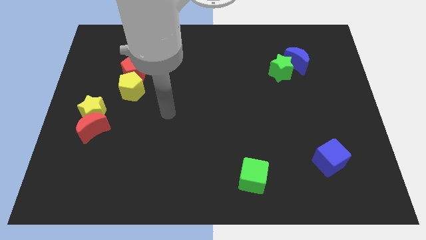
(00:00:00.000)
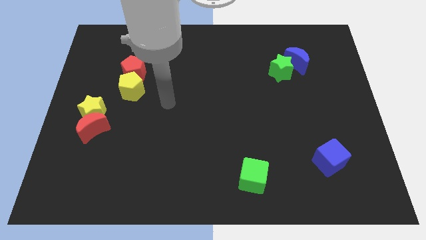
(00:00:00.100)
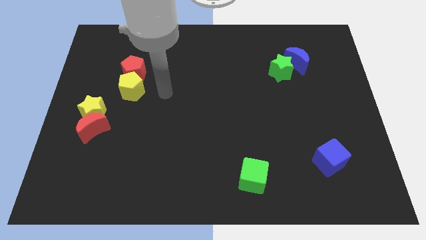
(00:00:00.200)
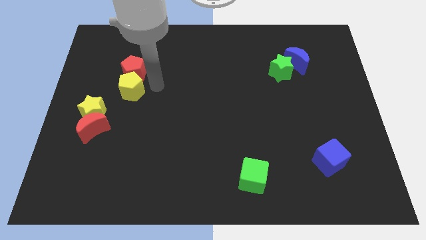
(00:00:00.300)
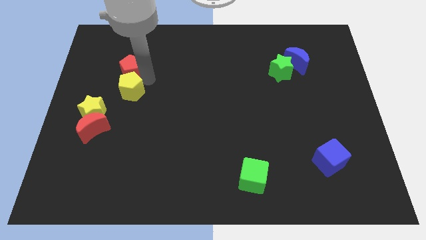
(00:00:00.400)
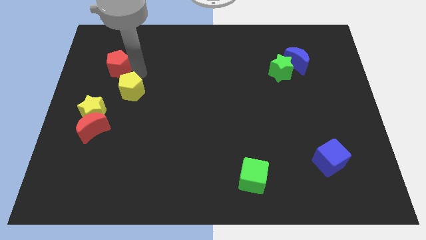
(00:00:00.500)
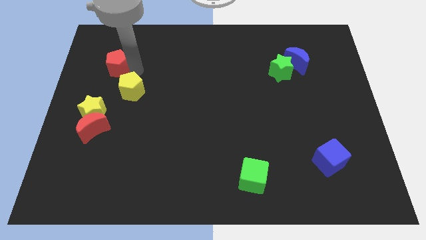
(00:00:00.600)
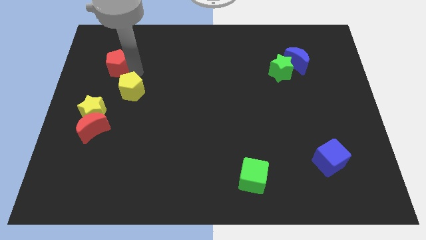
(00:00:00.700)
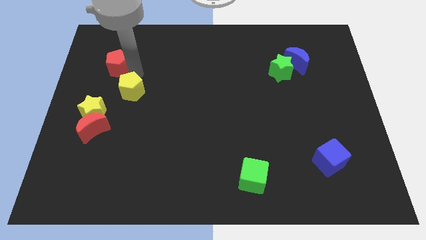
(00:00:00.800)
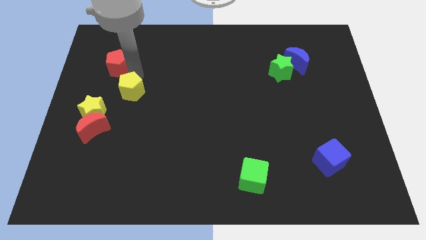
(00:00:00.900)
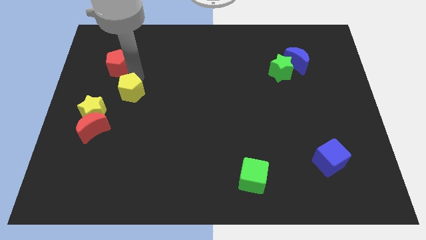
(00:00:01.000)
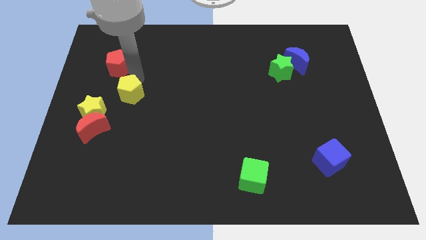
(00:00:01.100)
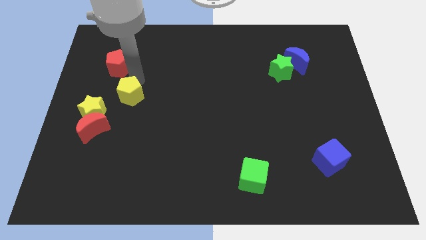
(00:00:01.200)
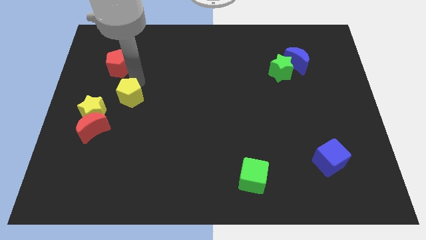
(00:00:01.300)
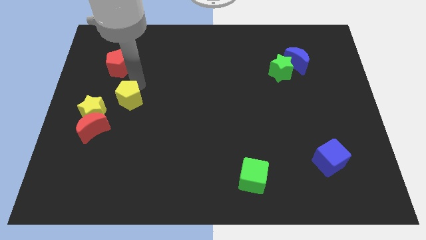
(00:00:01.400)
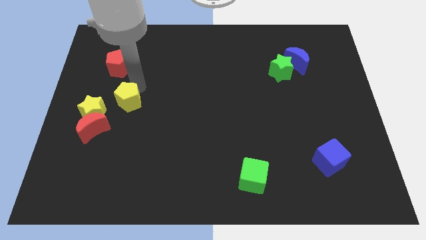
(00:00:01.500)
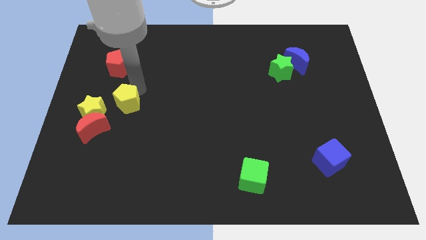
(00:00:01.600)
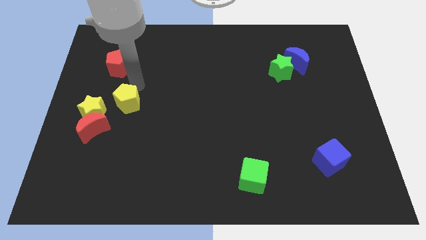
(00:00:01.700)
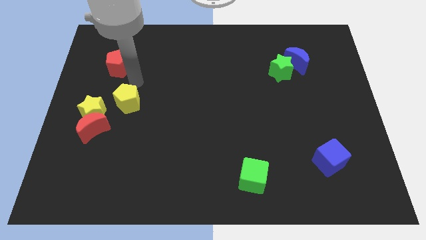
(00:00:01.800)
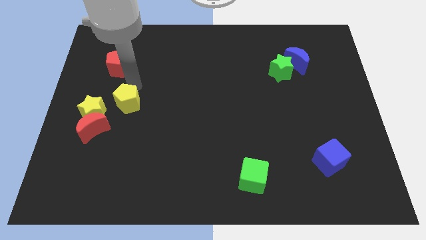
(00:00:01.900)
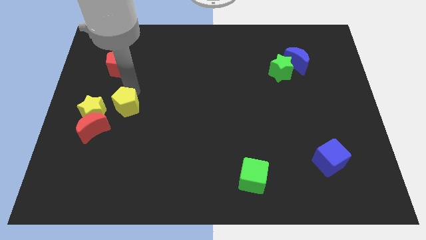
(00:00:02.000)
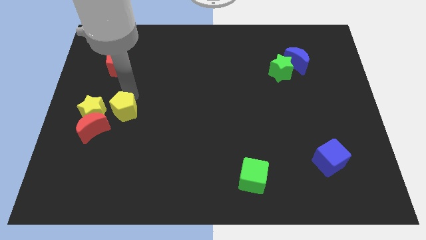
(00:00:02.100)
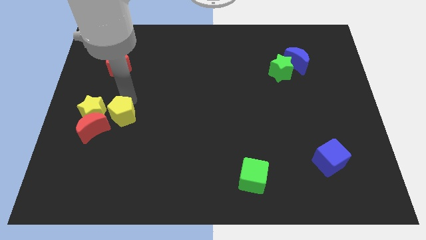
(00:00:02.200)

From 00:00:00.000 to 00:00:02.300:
move the yellow pentagon downwards somewhat

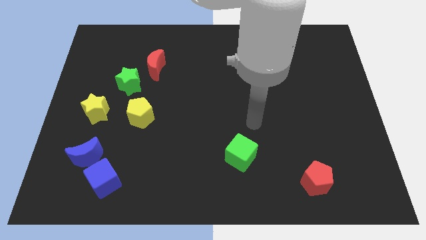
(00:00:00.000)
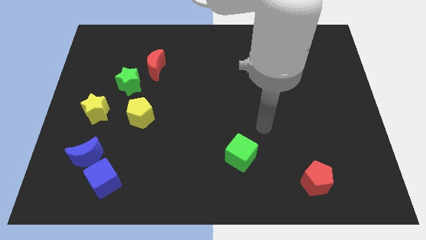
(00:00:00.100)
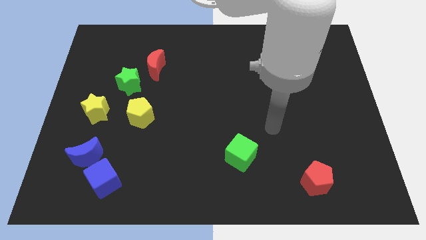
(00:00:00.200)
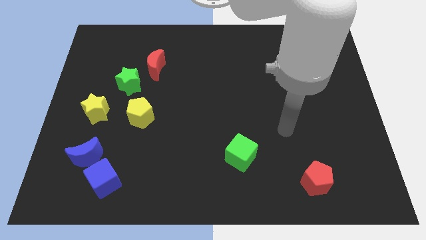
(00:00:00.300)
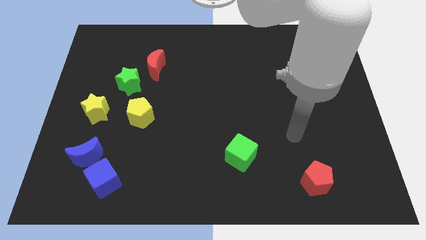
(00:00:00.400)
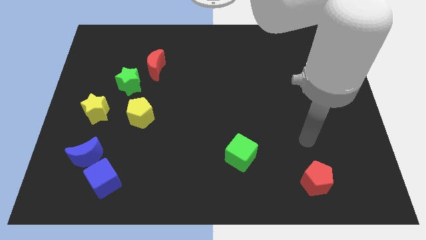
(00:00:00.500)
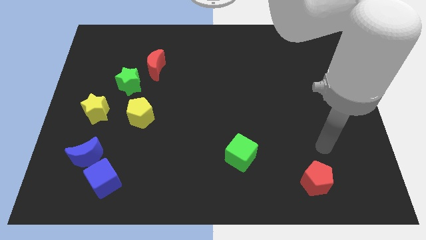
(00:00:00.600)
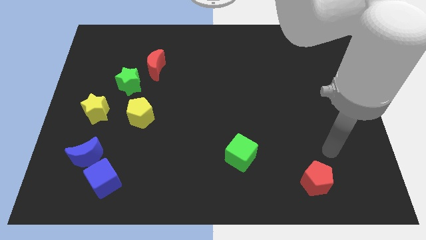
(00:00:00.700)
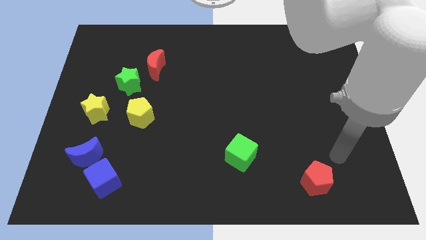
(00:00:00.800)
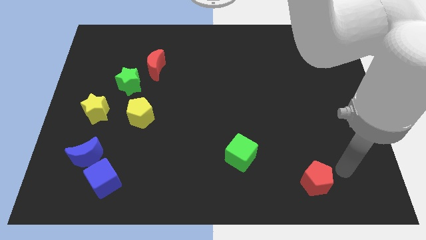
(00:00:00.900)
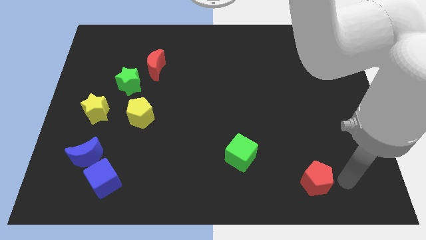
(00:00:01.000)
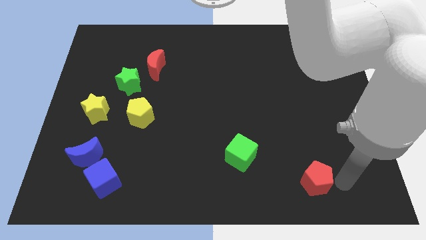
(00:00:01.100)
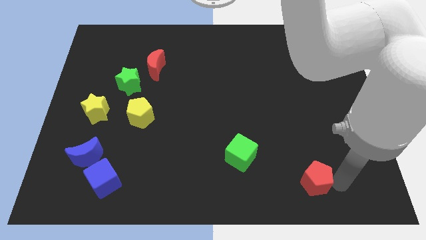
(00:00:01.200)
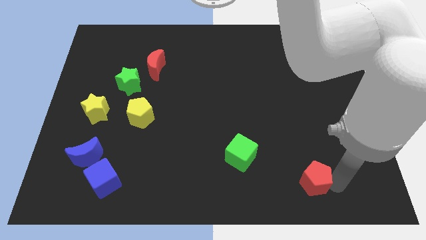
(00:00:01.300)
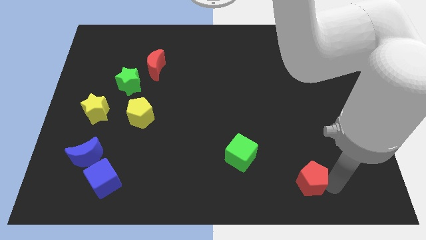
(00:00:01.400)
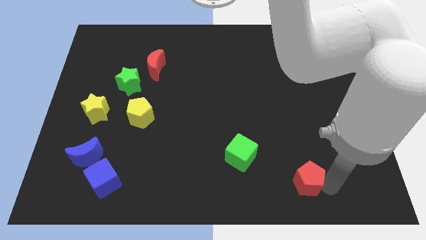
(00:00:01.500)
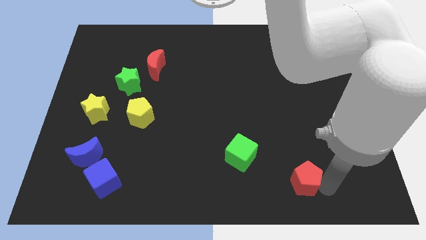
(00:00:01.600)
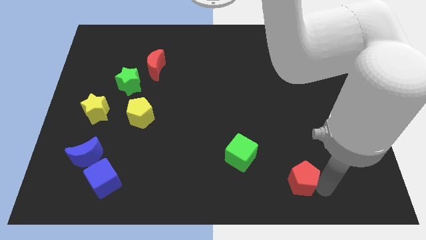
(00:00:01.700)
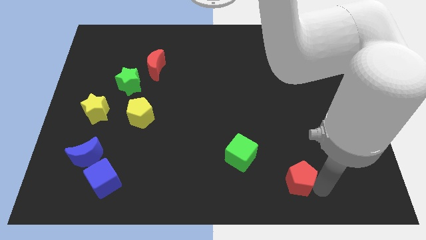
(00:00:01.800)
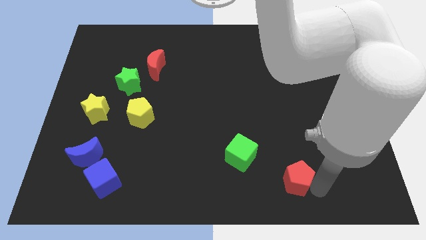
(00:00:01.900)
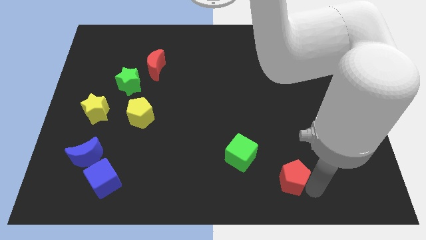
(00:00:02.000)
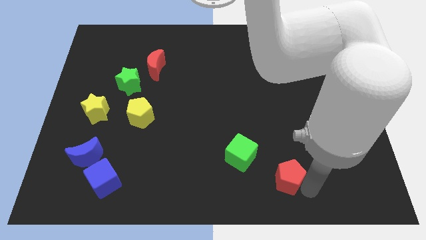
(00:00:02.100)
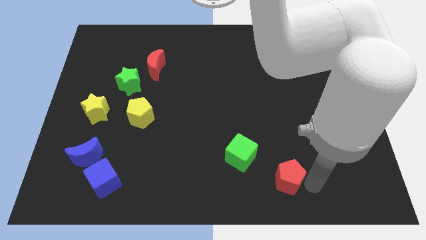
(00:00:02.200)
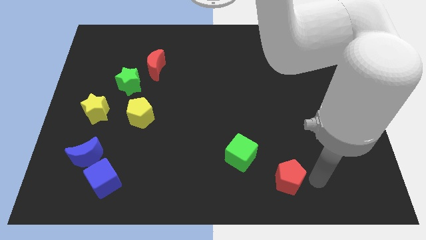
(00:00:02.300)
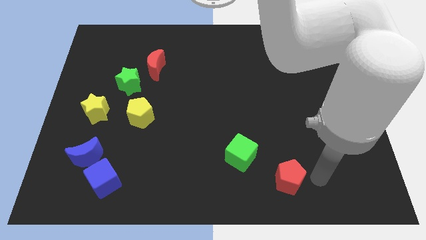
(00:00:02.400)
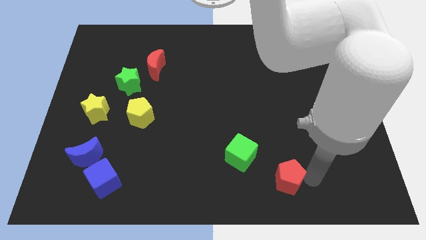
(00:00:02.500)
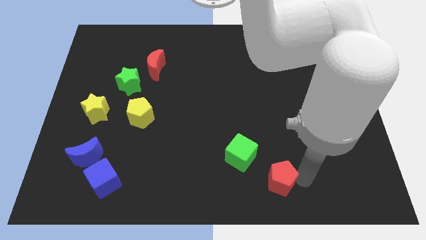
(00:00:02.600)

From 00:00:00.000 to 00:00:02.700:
slide the red pentagon left a little bit

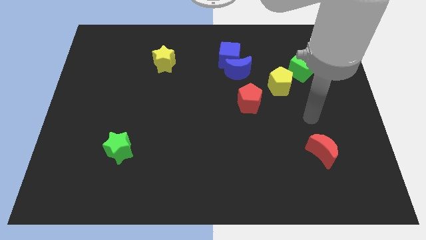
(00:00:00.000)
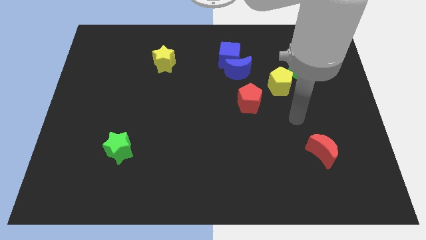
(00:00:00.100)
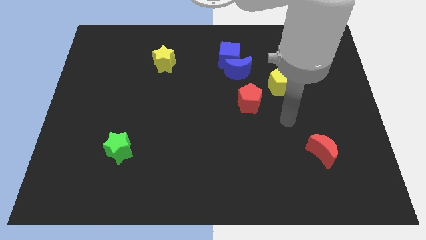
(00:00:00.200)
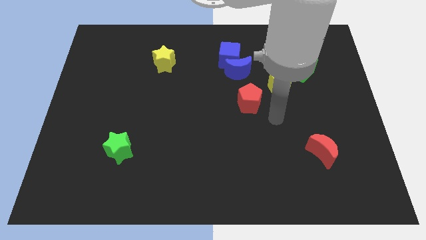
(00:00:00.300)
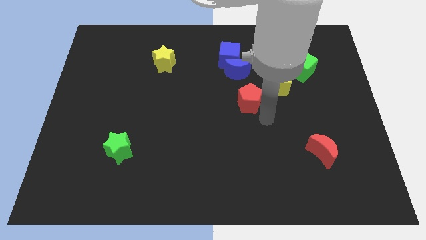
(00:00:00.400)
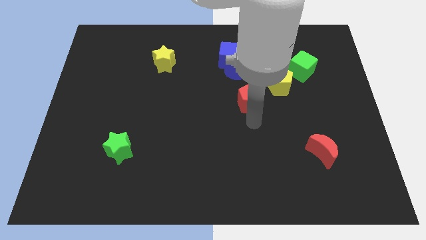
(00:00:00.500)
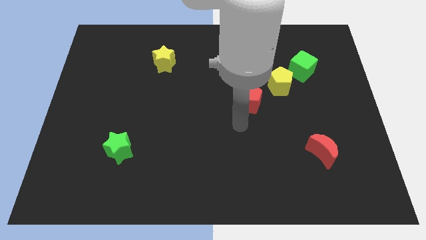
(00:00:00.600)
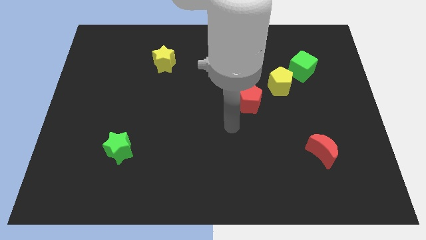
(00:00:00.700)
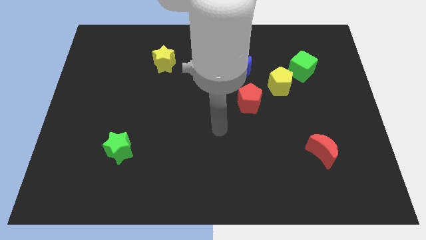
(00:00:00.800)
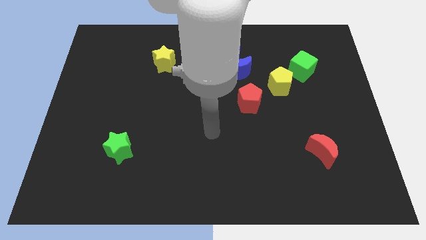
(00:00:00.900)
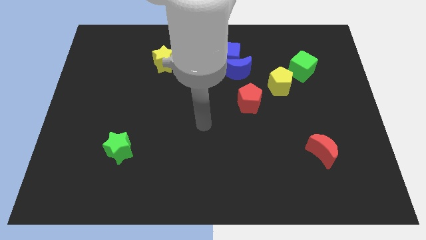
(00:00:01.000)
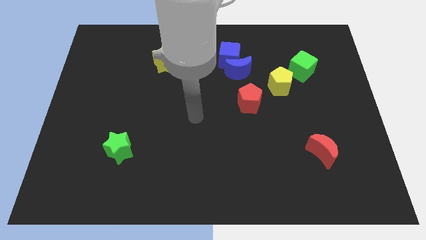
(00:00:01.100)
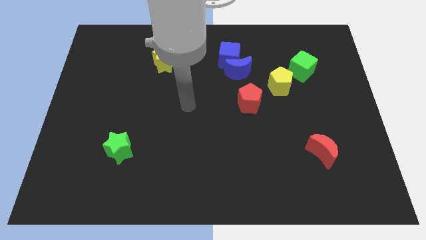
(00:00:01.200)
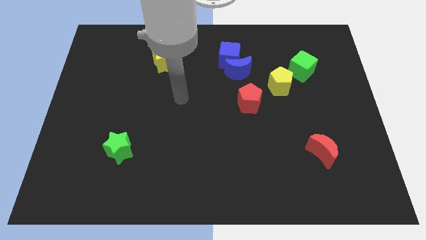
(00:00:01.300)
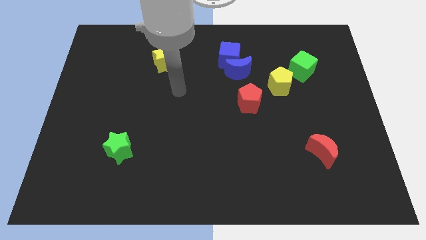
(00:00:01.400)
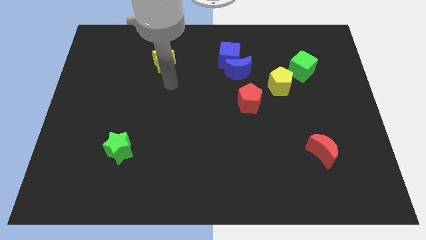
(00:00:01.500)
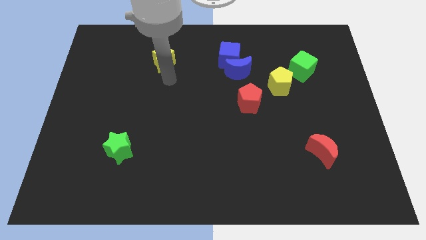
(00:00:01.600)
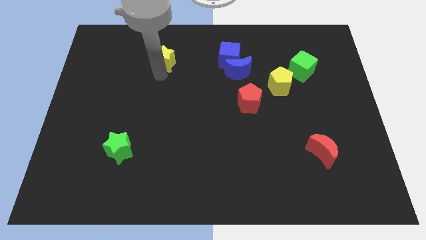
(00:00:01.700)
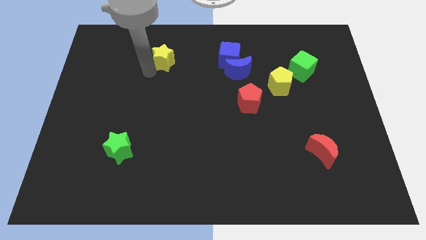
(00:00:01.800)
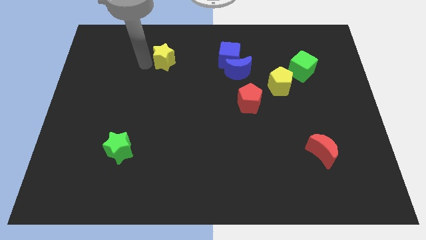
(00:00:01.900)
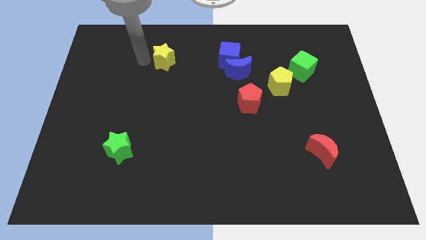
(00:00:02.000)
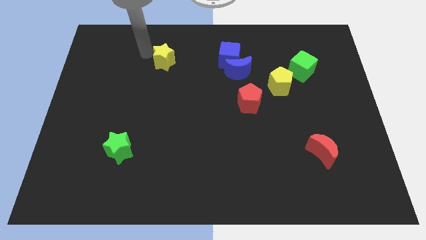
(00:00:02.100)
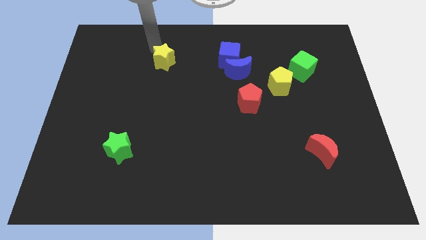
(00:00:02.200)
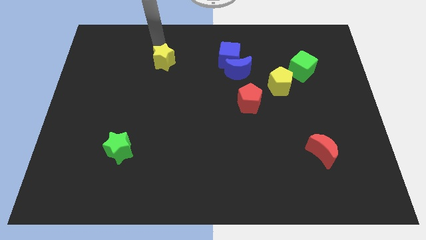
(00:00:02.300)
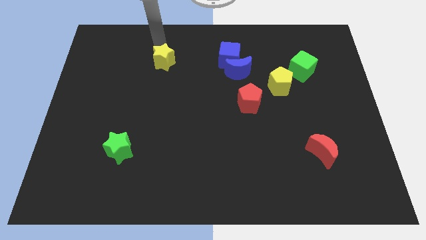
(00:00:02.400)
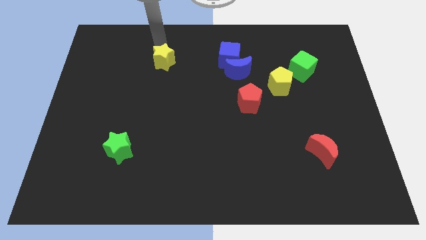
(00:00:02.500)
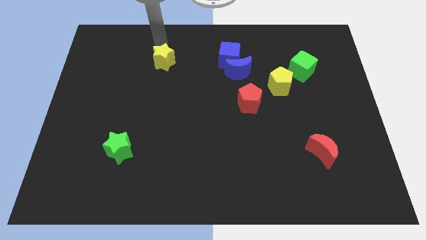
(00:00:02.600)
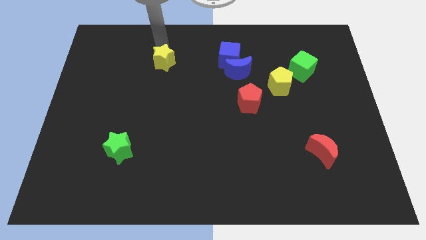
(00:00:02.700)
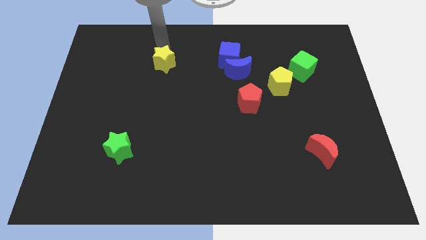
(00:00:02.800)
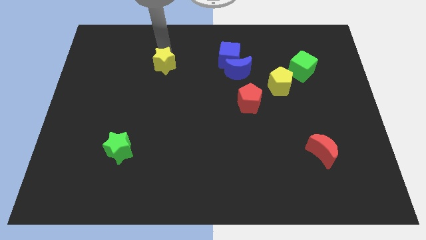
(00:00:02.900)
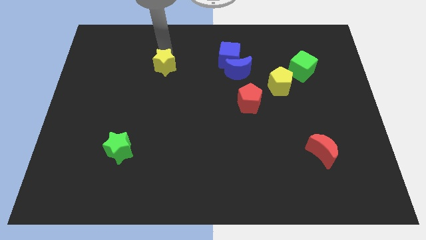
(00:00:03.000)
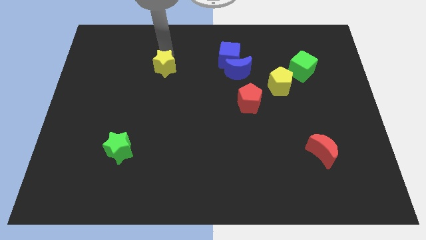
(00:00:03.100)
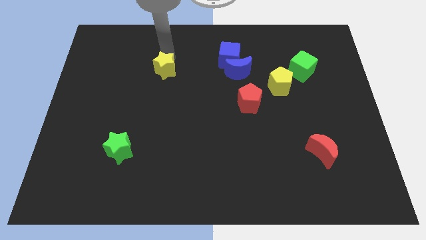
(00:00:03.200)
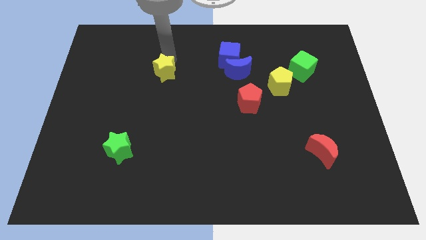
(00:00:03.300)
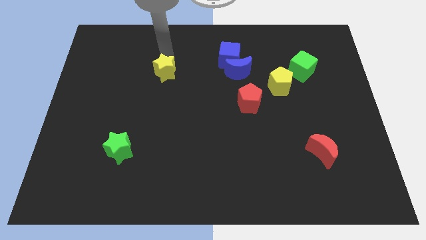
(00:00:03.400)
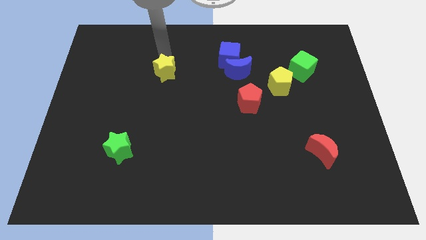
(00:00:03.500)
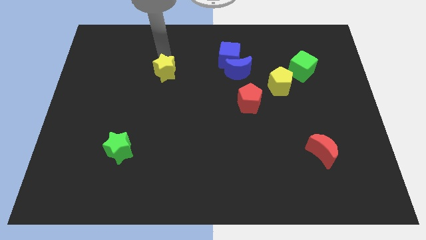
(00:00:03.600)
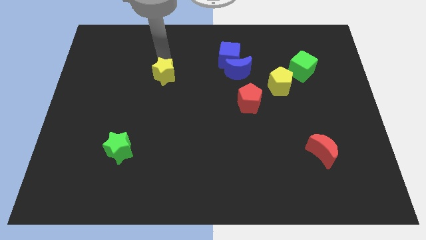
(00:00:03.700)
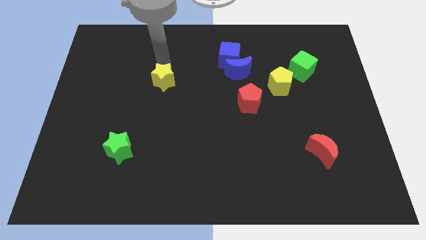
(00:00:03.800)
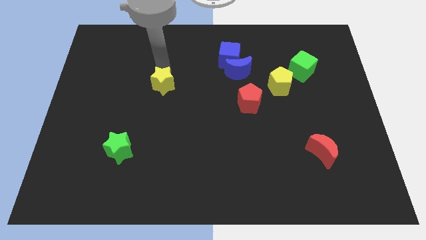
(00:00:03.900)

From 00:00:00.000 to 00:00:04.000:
slide the yellow star down a little
